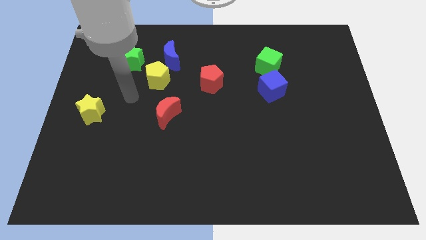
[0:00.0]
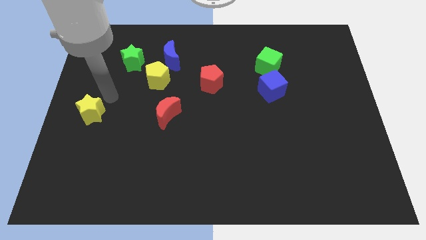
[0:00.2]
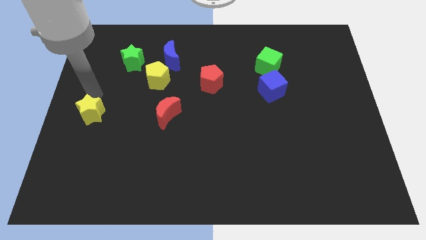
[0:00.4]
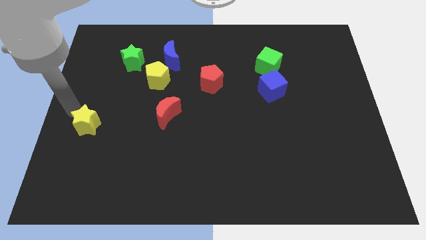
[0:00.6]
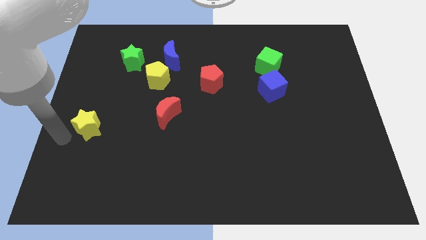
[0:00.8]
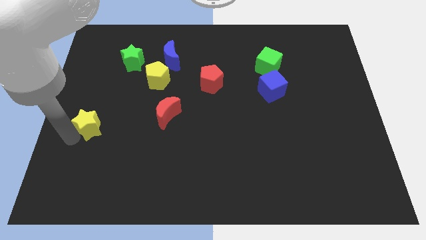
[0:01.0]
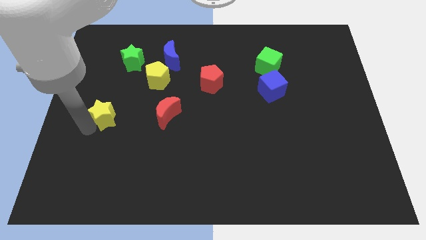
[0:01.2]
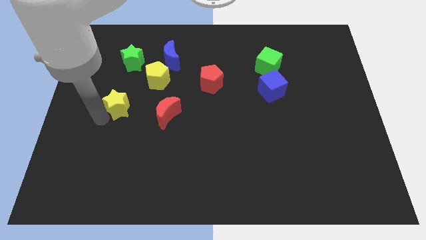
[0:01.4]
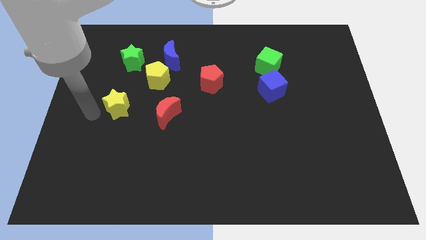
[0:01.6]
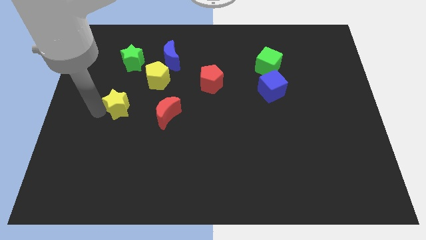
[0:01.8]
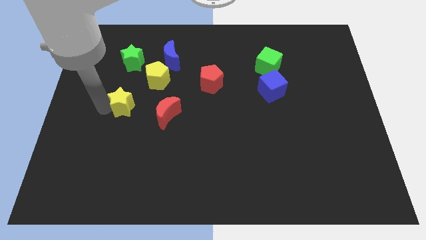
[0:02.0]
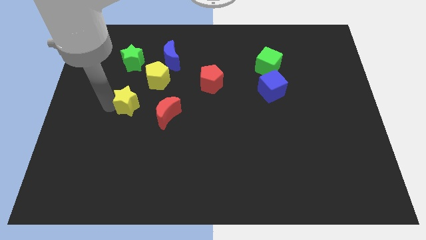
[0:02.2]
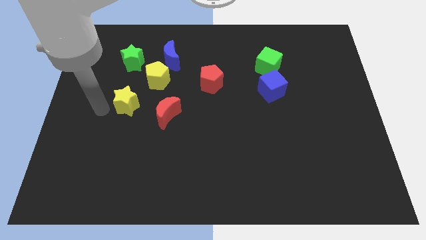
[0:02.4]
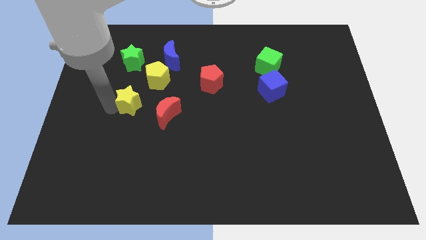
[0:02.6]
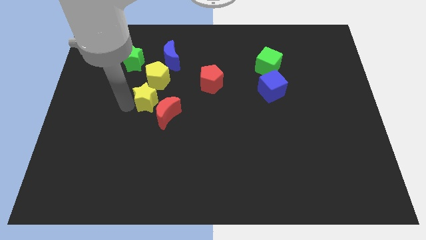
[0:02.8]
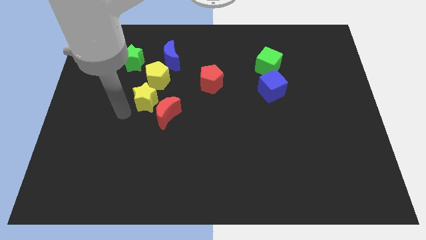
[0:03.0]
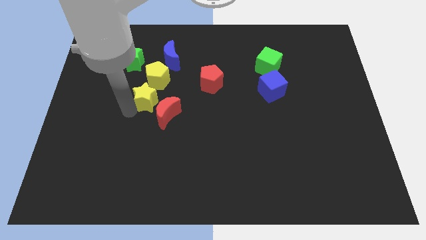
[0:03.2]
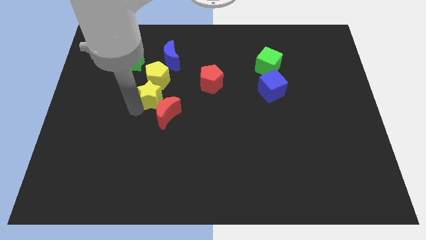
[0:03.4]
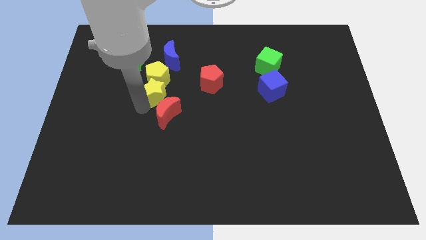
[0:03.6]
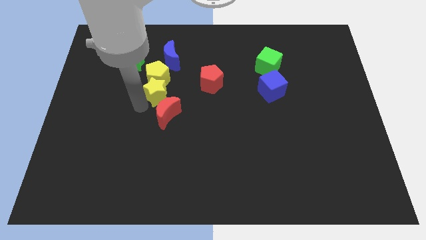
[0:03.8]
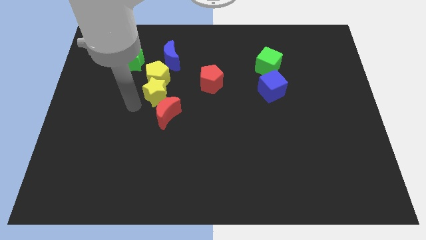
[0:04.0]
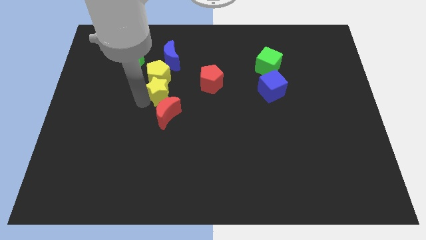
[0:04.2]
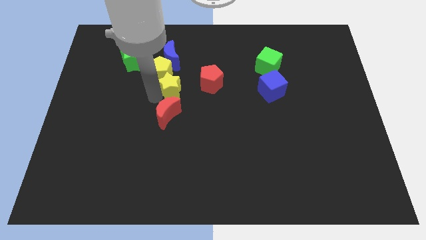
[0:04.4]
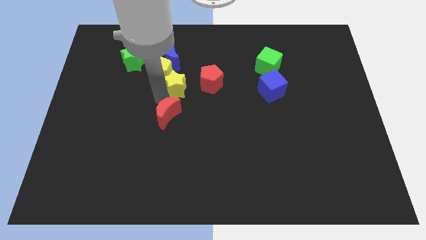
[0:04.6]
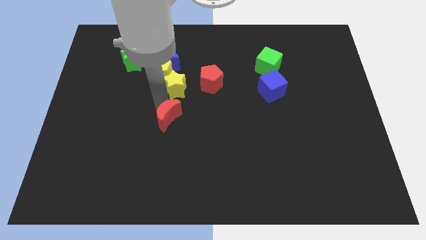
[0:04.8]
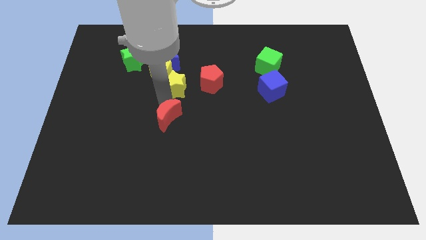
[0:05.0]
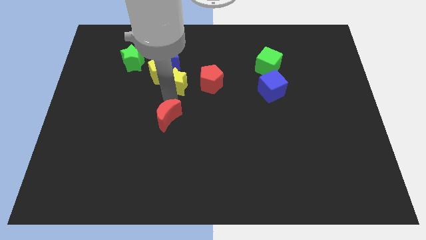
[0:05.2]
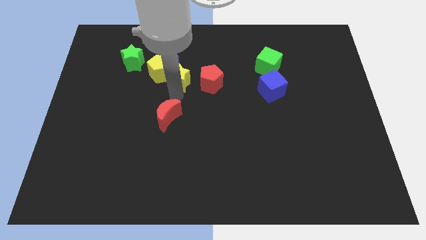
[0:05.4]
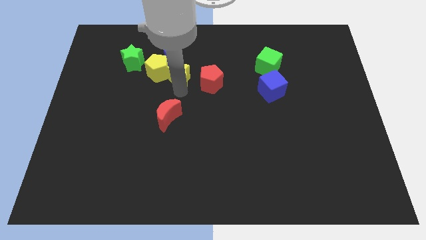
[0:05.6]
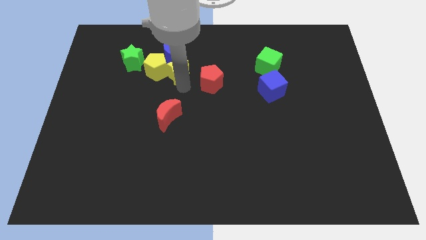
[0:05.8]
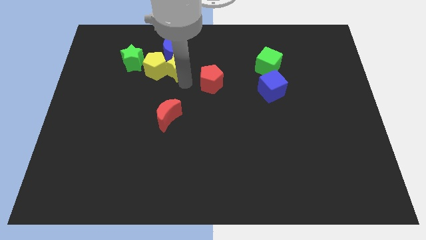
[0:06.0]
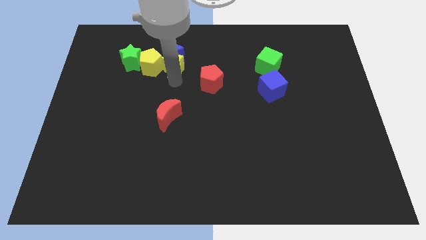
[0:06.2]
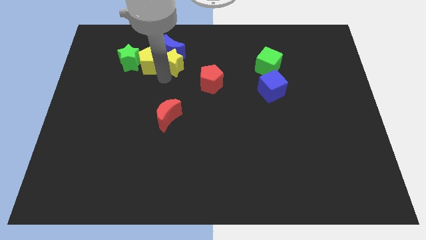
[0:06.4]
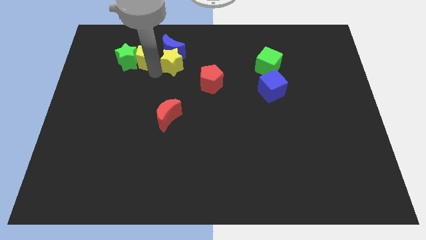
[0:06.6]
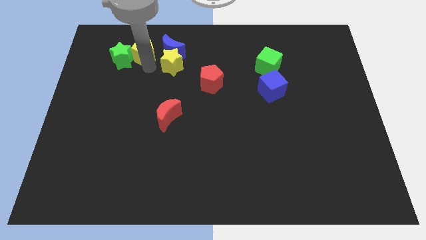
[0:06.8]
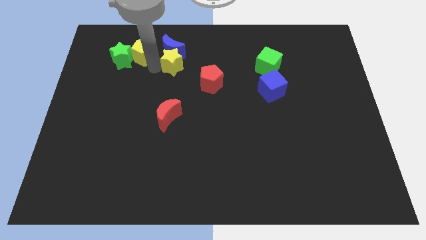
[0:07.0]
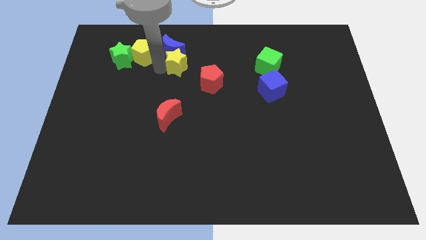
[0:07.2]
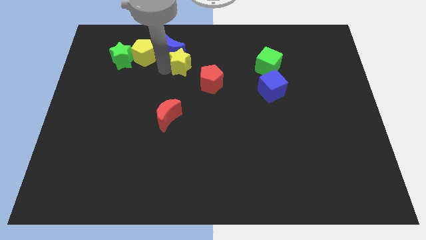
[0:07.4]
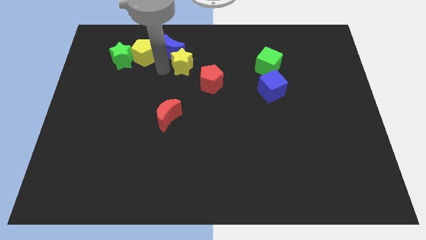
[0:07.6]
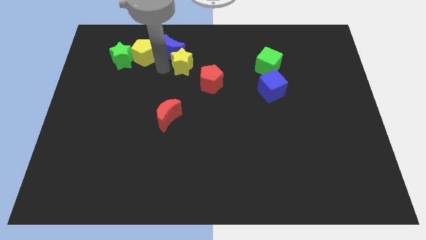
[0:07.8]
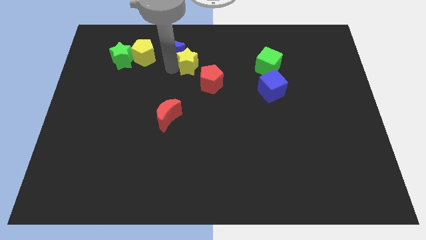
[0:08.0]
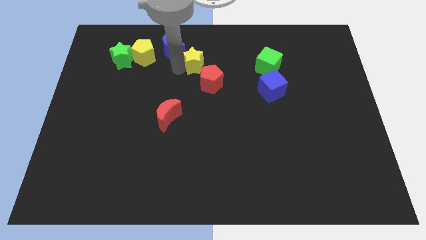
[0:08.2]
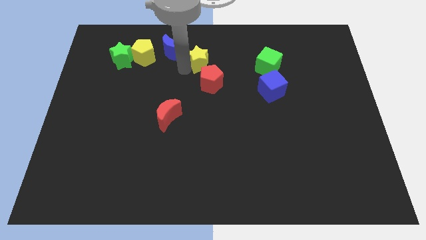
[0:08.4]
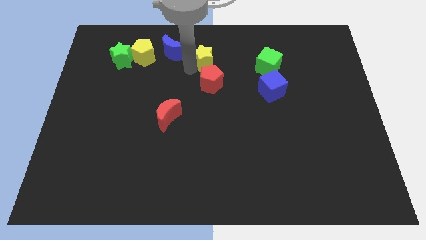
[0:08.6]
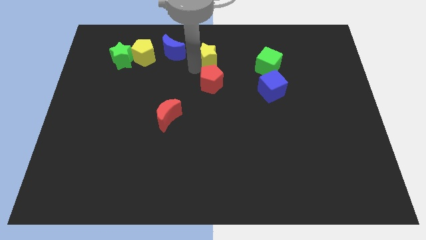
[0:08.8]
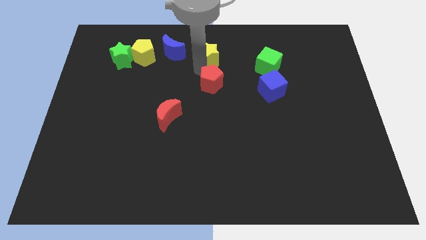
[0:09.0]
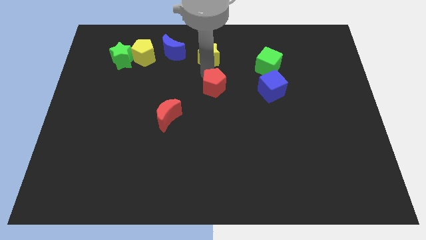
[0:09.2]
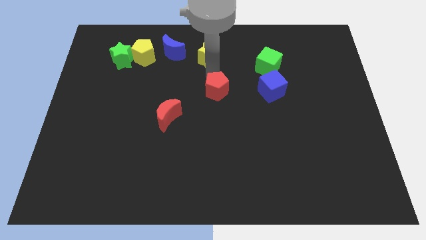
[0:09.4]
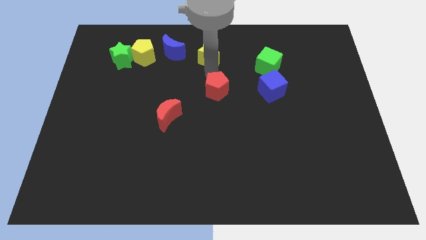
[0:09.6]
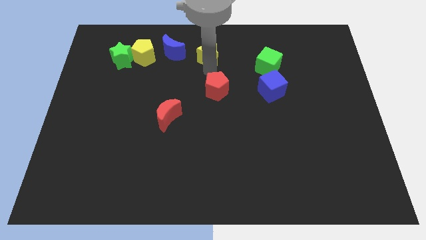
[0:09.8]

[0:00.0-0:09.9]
slide the yellow star to the top side

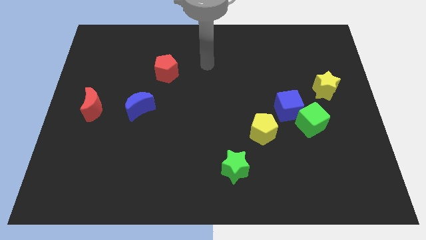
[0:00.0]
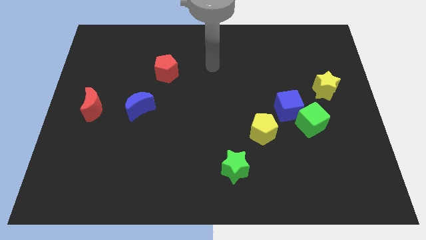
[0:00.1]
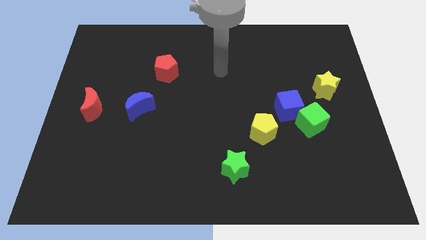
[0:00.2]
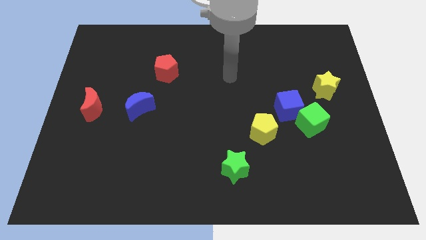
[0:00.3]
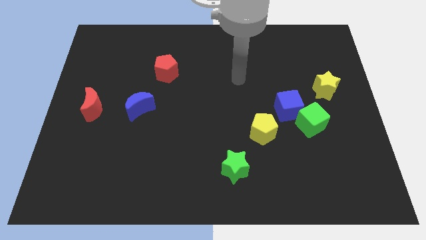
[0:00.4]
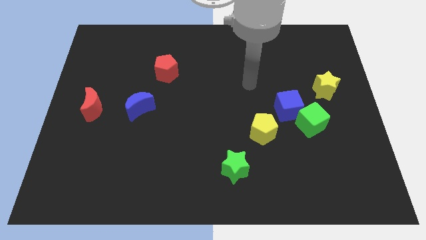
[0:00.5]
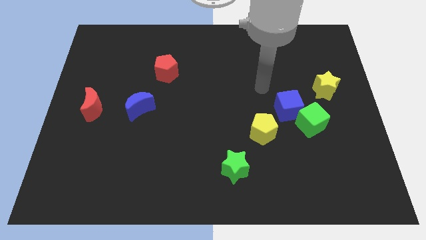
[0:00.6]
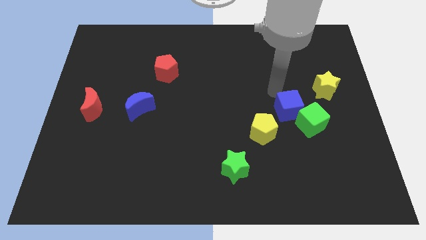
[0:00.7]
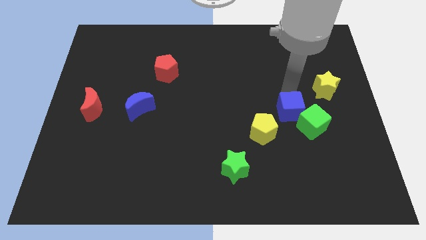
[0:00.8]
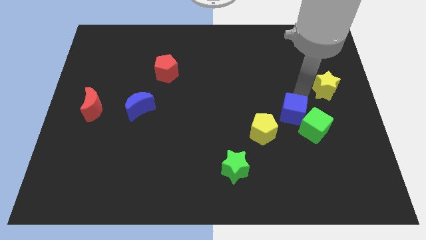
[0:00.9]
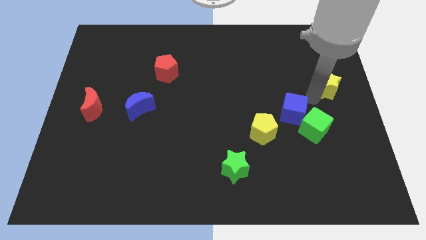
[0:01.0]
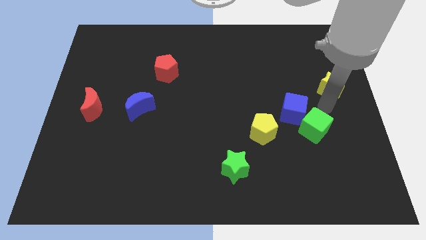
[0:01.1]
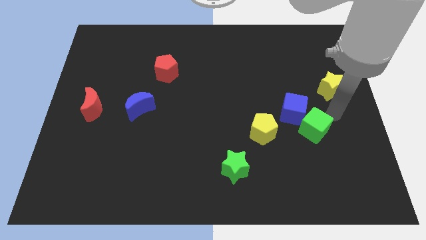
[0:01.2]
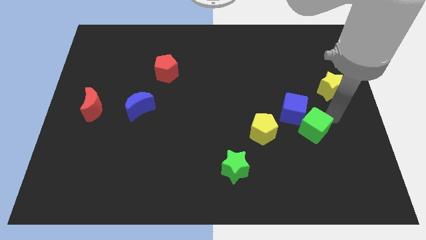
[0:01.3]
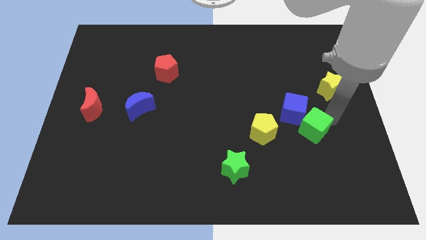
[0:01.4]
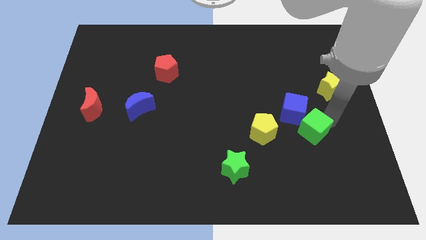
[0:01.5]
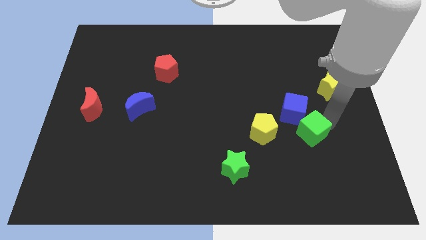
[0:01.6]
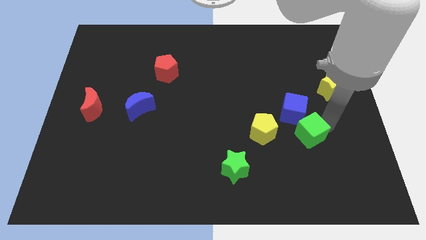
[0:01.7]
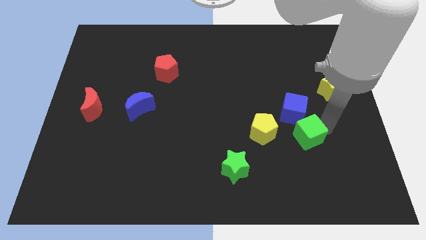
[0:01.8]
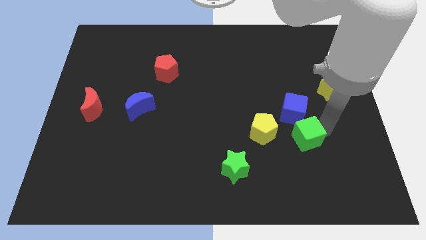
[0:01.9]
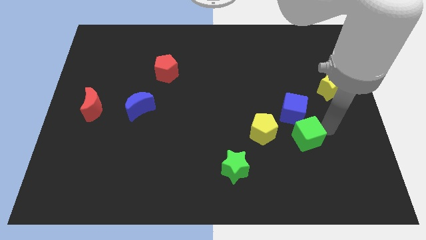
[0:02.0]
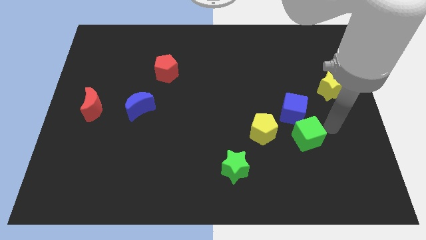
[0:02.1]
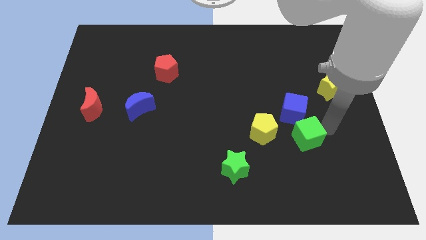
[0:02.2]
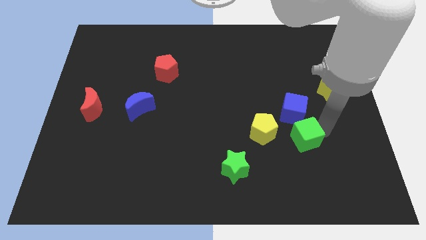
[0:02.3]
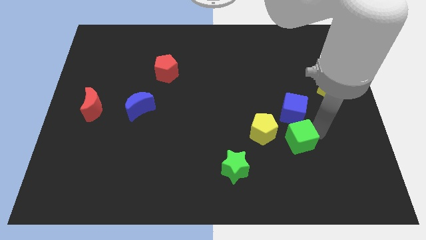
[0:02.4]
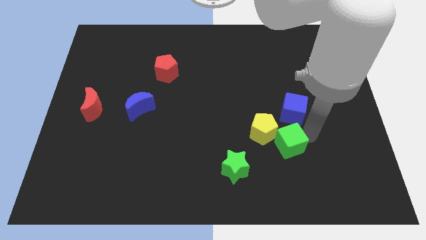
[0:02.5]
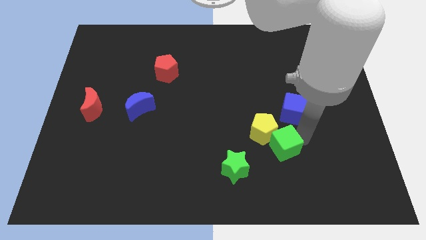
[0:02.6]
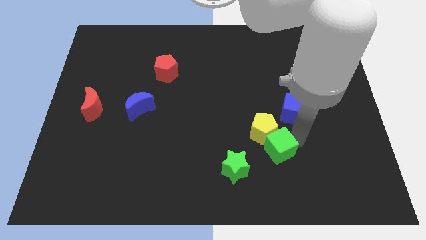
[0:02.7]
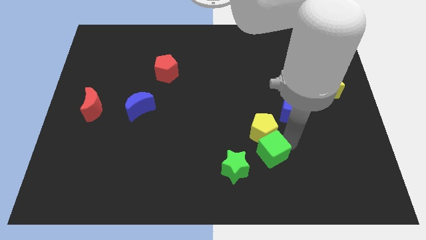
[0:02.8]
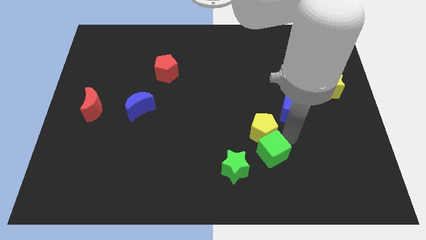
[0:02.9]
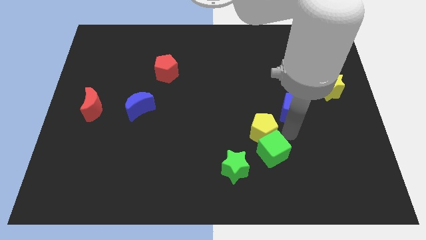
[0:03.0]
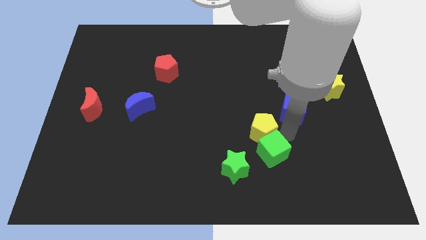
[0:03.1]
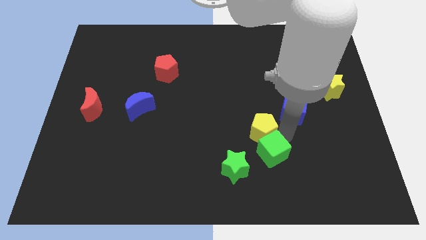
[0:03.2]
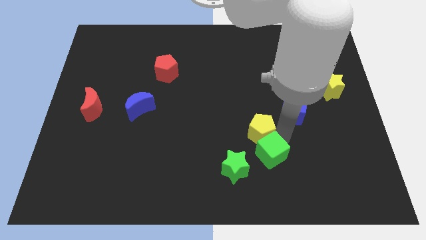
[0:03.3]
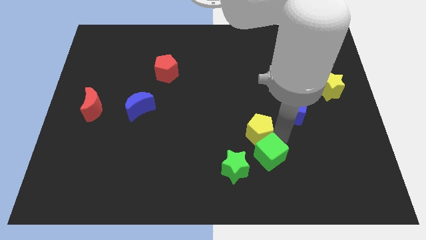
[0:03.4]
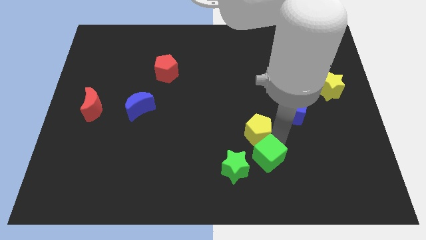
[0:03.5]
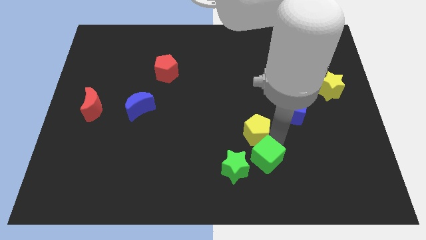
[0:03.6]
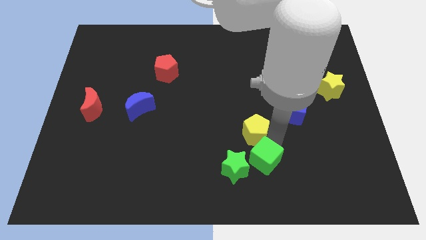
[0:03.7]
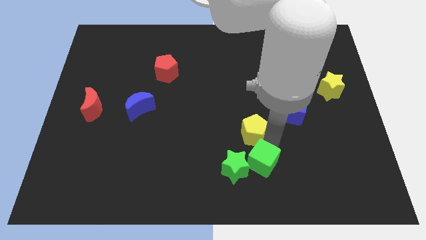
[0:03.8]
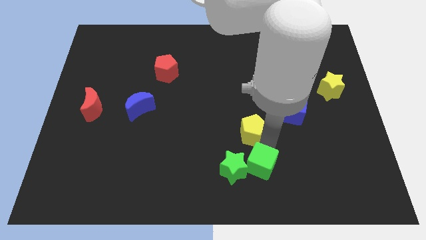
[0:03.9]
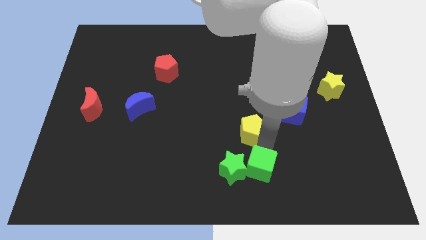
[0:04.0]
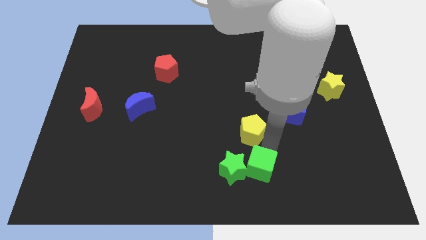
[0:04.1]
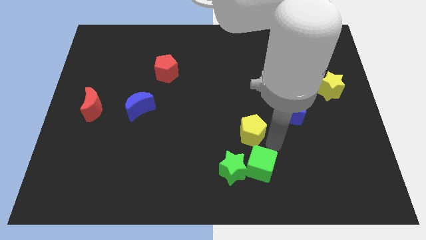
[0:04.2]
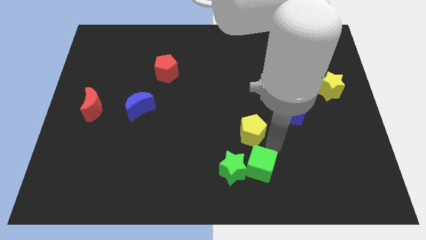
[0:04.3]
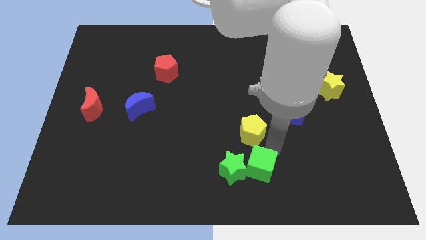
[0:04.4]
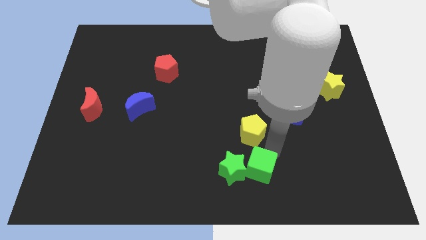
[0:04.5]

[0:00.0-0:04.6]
move the green cube to the bottom side
